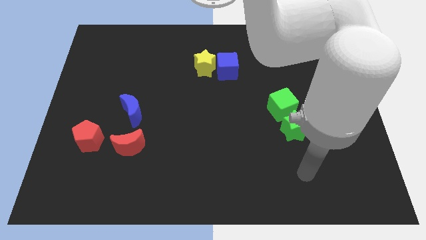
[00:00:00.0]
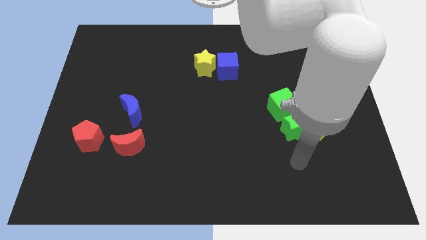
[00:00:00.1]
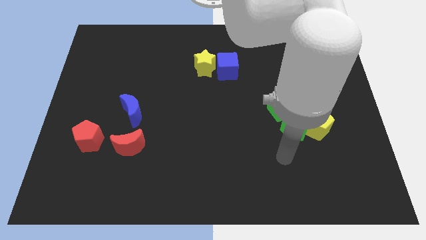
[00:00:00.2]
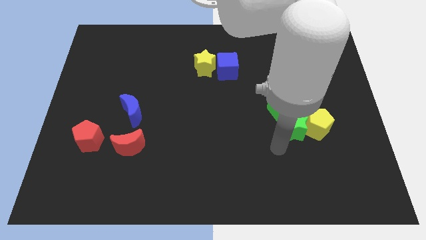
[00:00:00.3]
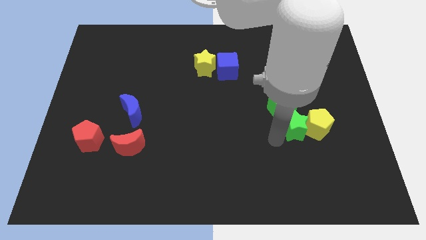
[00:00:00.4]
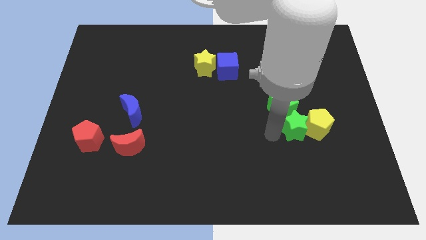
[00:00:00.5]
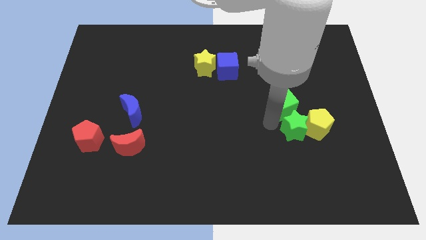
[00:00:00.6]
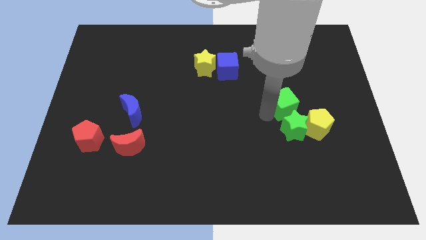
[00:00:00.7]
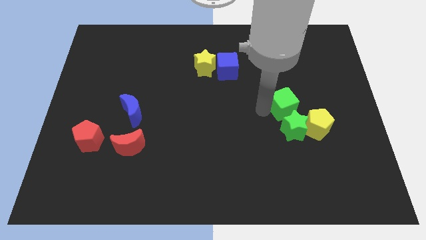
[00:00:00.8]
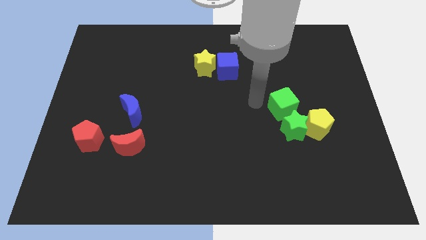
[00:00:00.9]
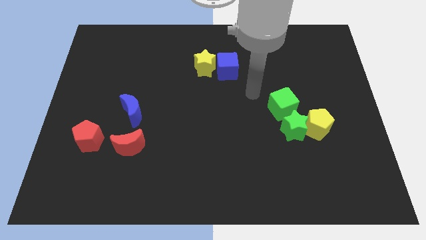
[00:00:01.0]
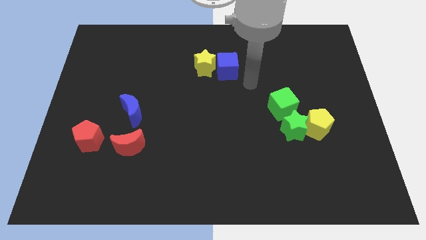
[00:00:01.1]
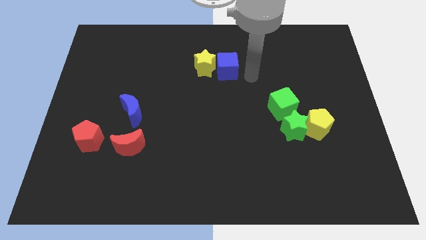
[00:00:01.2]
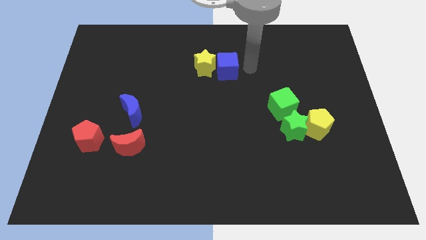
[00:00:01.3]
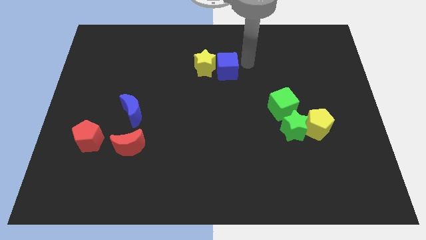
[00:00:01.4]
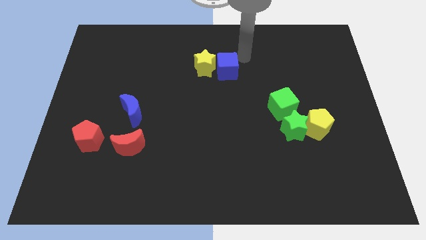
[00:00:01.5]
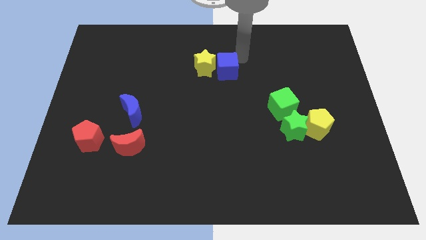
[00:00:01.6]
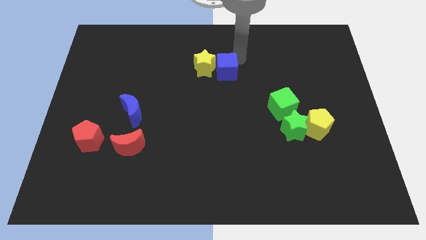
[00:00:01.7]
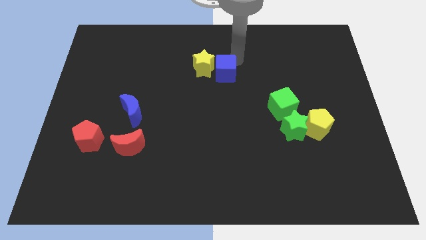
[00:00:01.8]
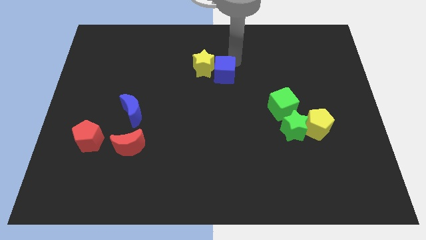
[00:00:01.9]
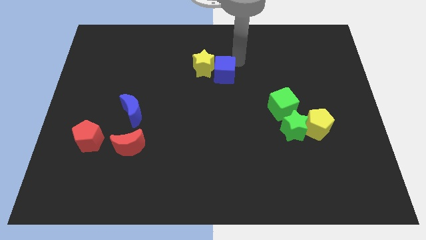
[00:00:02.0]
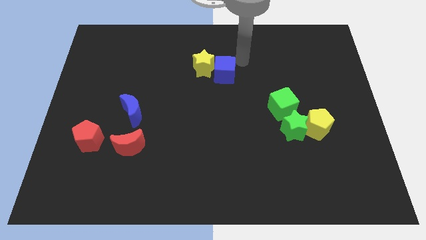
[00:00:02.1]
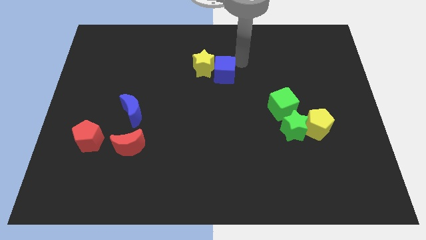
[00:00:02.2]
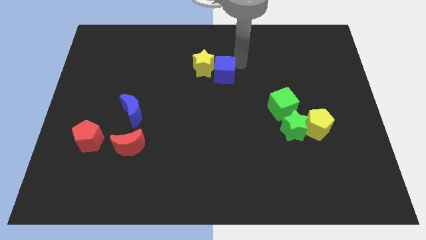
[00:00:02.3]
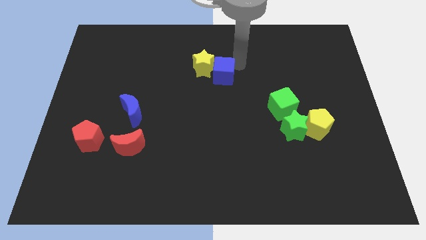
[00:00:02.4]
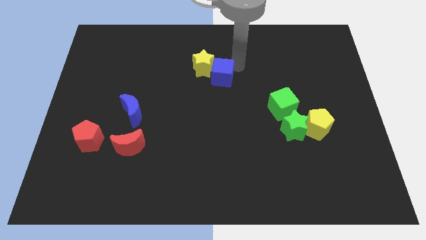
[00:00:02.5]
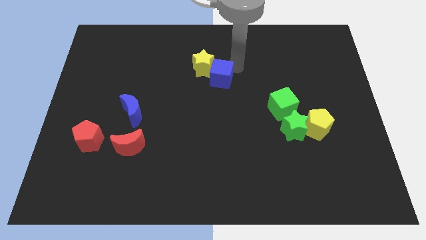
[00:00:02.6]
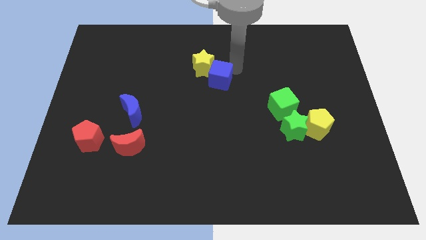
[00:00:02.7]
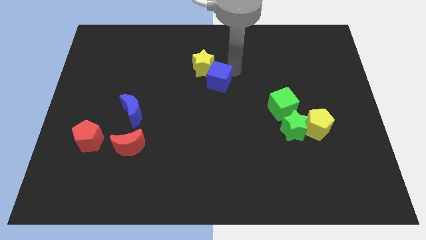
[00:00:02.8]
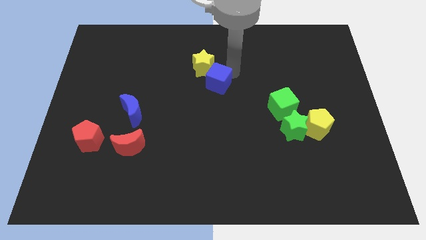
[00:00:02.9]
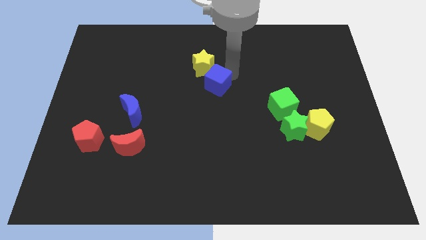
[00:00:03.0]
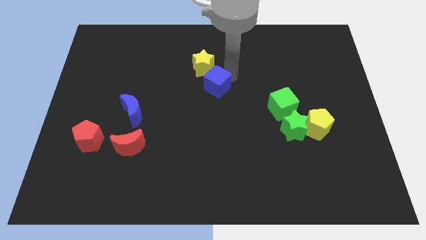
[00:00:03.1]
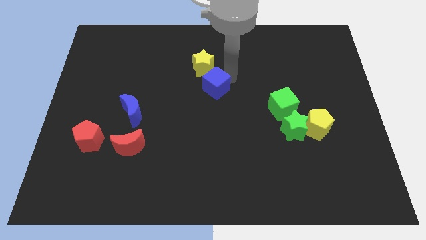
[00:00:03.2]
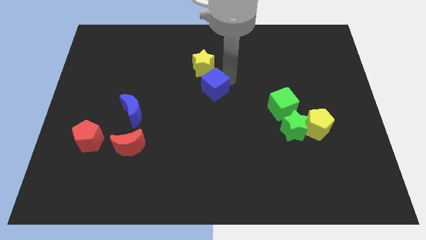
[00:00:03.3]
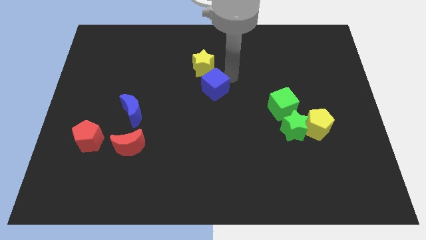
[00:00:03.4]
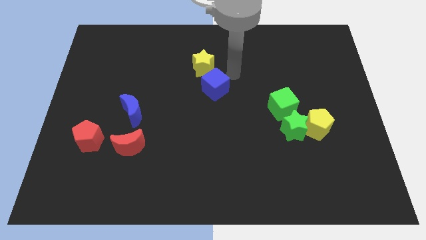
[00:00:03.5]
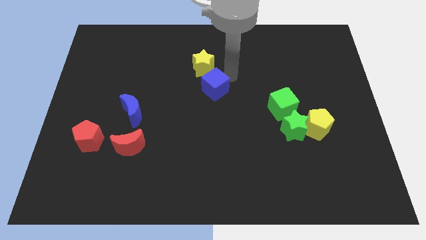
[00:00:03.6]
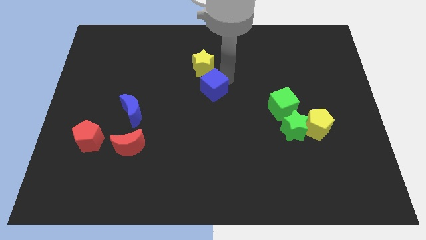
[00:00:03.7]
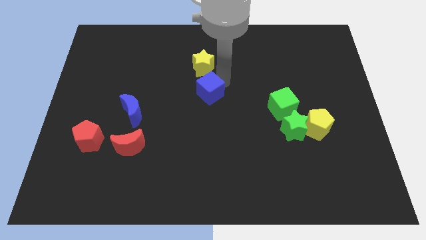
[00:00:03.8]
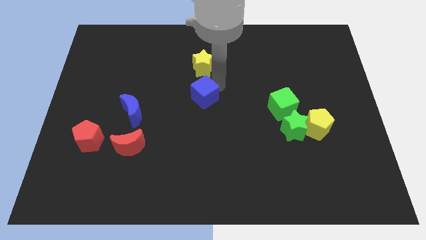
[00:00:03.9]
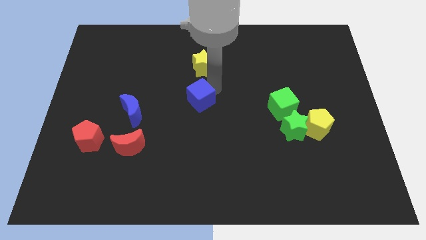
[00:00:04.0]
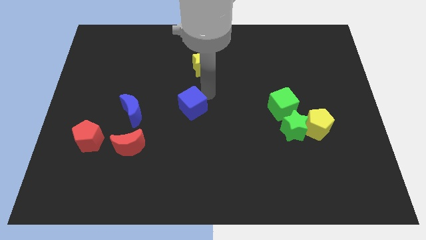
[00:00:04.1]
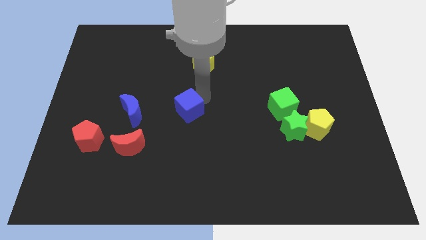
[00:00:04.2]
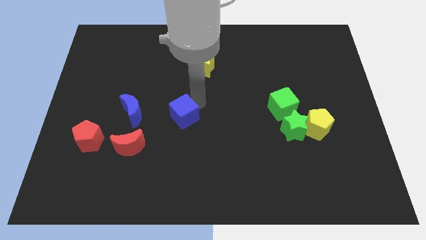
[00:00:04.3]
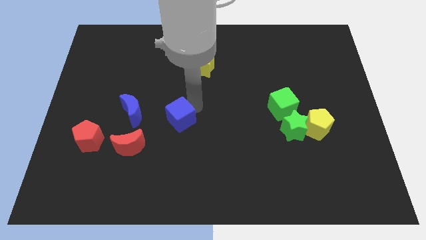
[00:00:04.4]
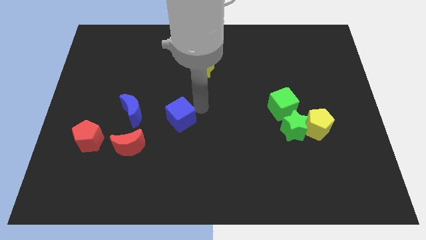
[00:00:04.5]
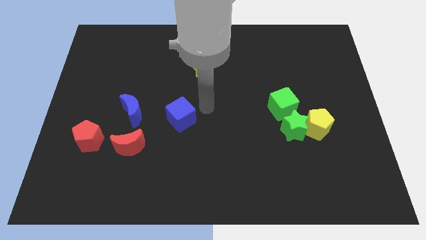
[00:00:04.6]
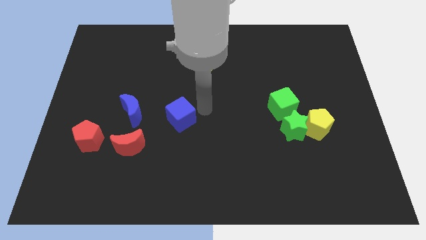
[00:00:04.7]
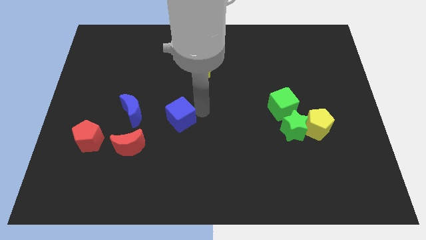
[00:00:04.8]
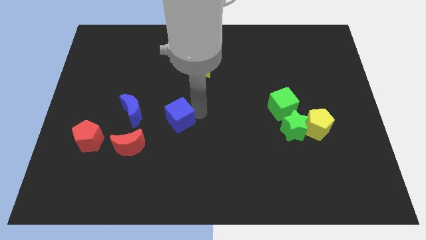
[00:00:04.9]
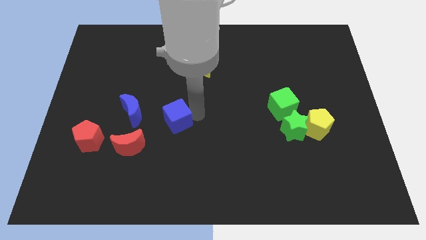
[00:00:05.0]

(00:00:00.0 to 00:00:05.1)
put the blue cube to the top right side of the red moon

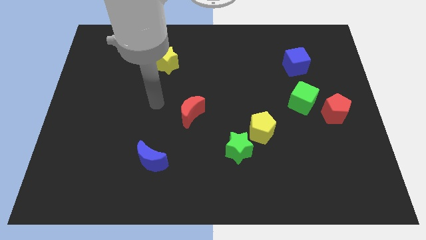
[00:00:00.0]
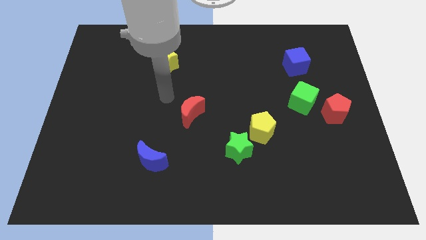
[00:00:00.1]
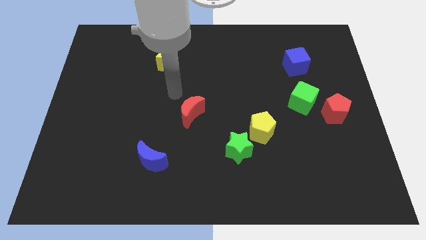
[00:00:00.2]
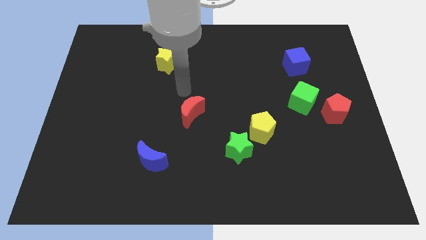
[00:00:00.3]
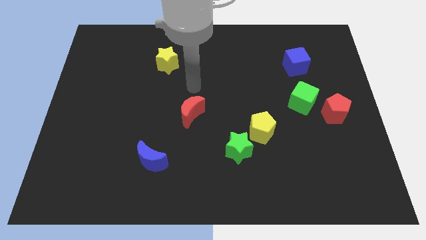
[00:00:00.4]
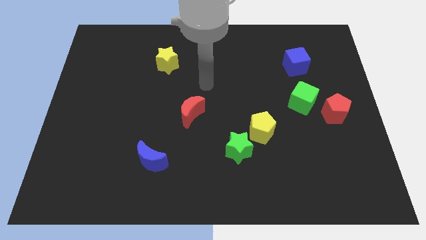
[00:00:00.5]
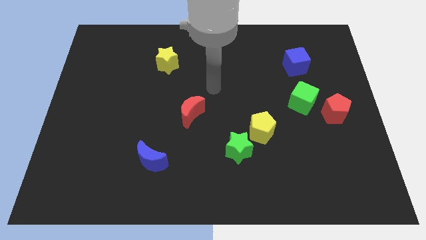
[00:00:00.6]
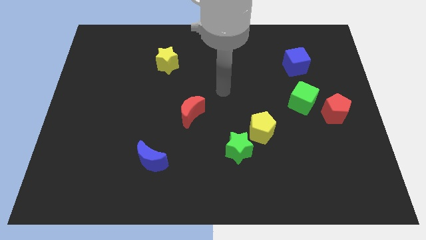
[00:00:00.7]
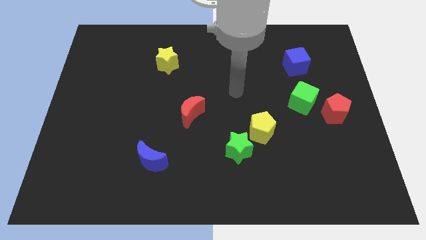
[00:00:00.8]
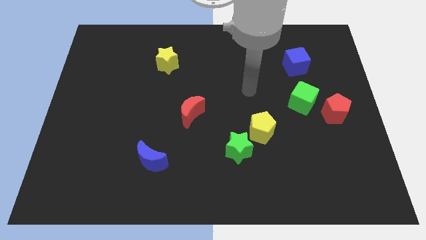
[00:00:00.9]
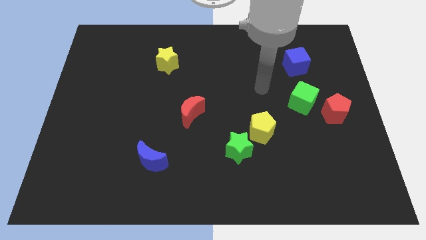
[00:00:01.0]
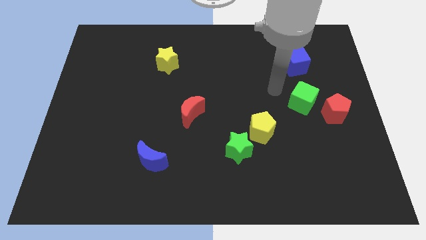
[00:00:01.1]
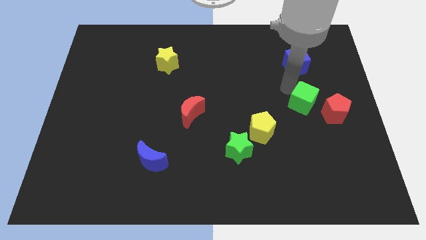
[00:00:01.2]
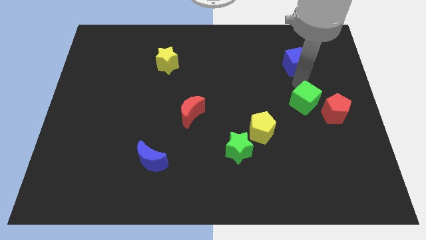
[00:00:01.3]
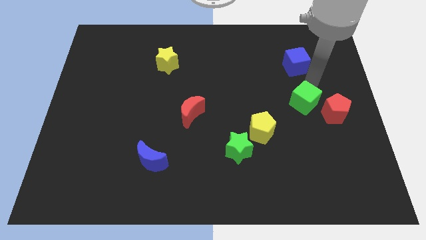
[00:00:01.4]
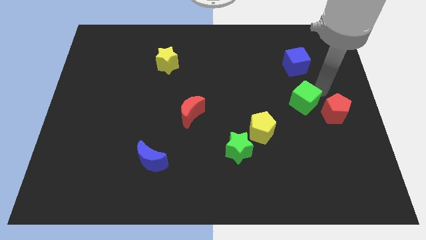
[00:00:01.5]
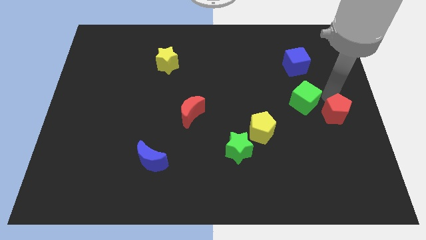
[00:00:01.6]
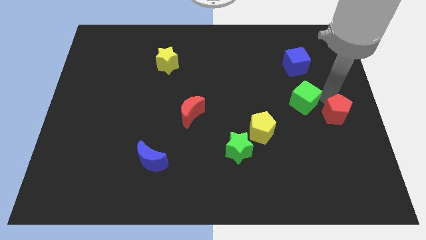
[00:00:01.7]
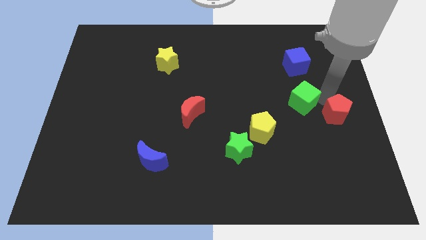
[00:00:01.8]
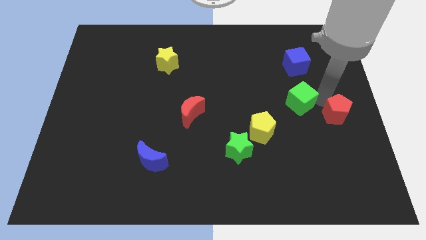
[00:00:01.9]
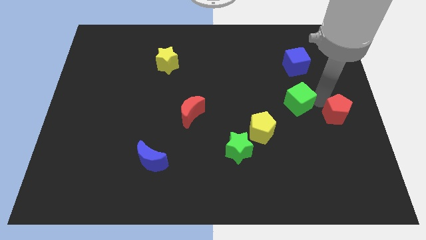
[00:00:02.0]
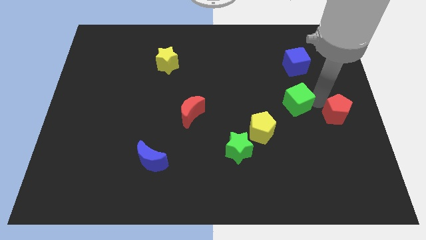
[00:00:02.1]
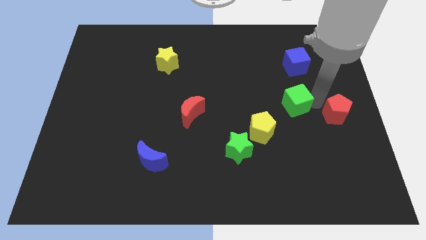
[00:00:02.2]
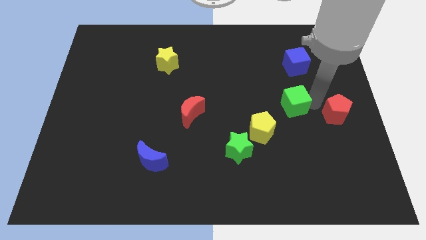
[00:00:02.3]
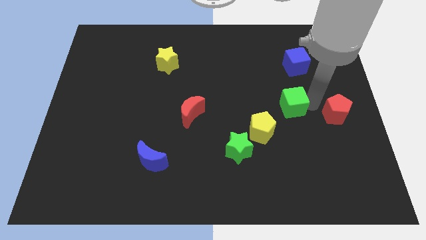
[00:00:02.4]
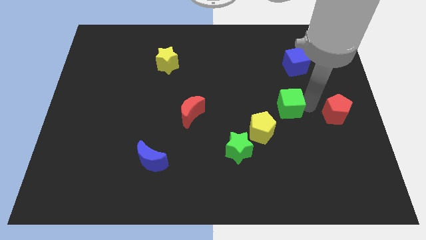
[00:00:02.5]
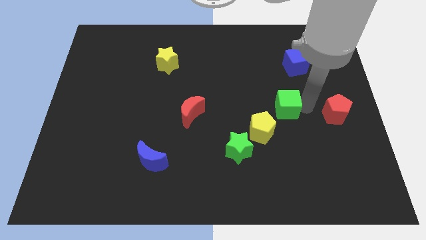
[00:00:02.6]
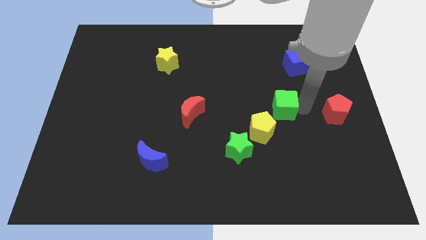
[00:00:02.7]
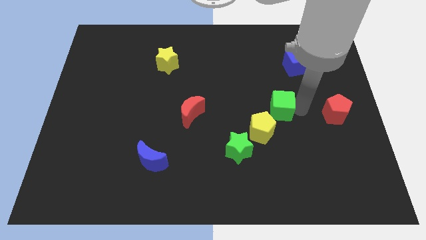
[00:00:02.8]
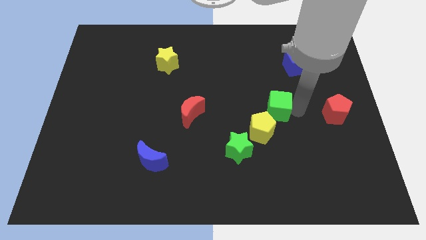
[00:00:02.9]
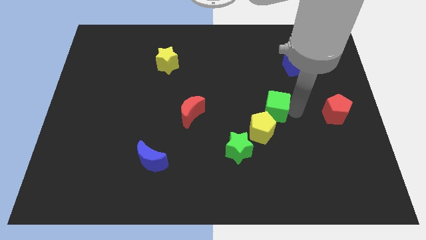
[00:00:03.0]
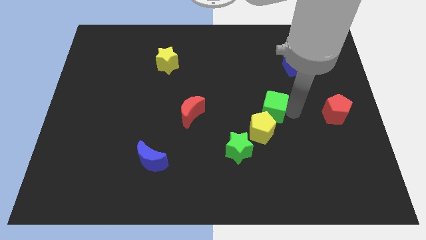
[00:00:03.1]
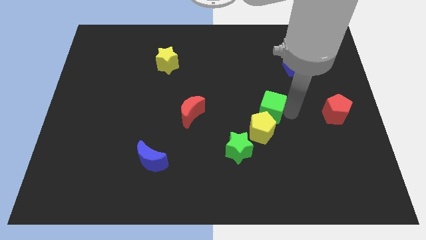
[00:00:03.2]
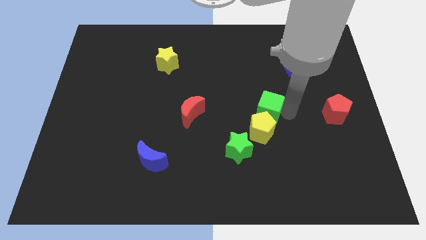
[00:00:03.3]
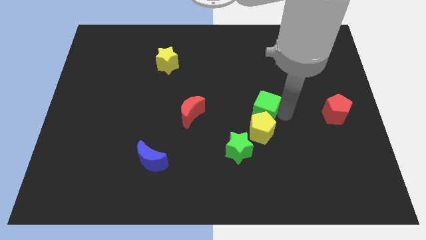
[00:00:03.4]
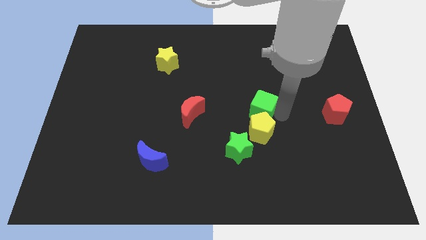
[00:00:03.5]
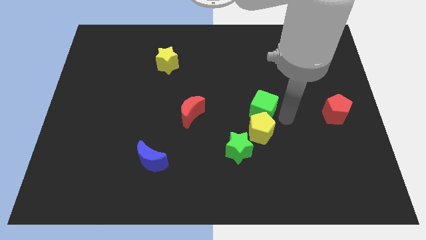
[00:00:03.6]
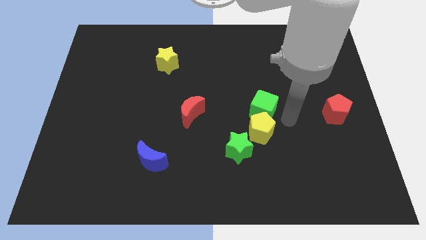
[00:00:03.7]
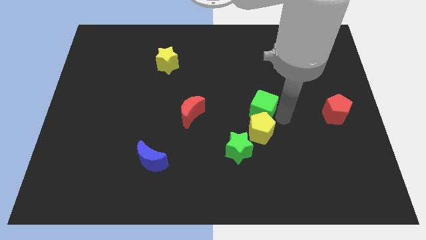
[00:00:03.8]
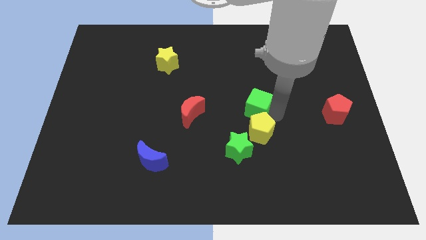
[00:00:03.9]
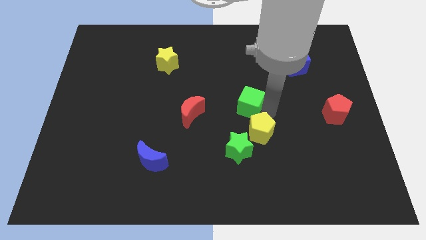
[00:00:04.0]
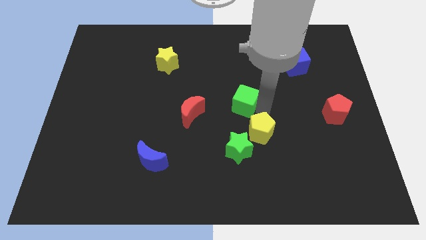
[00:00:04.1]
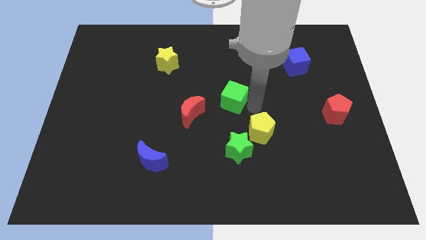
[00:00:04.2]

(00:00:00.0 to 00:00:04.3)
move the green cube to the top right side of the red moon
